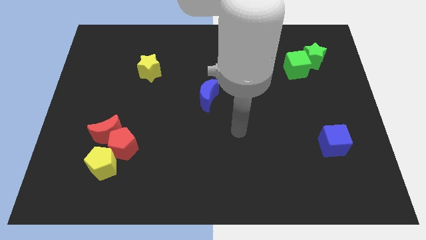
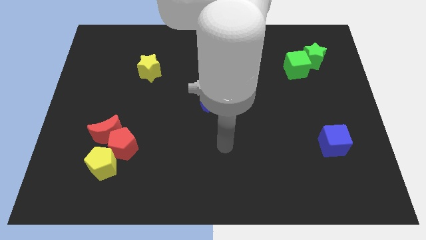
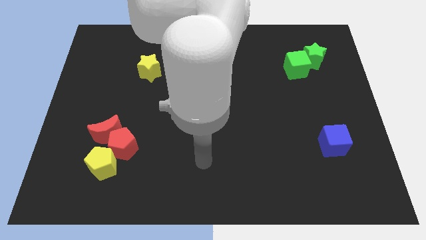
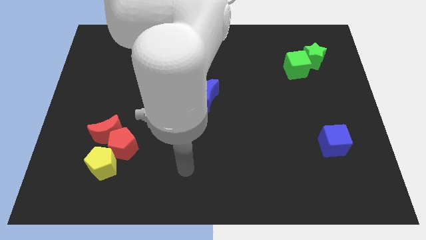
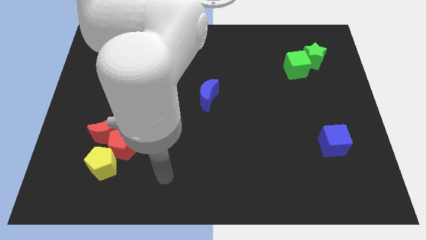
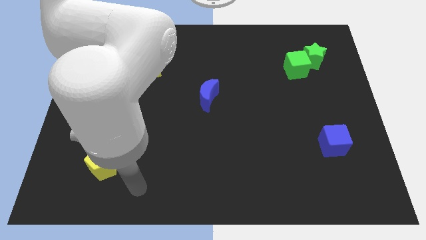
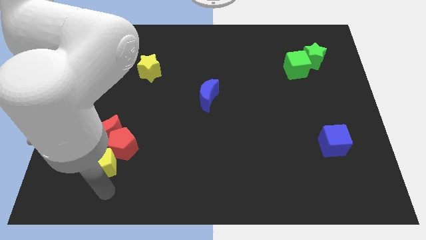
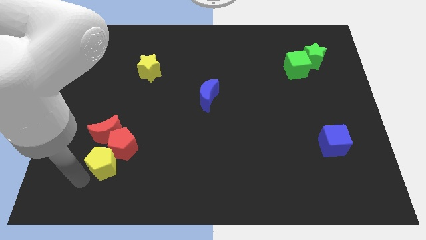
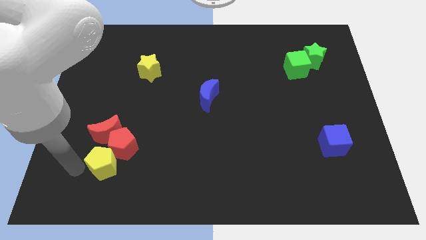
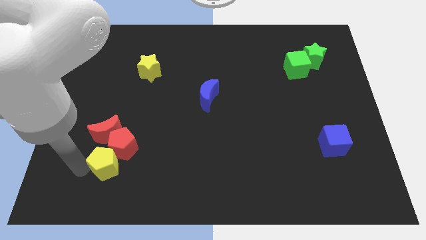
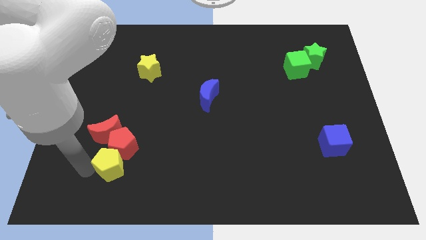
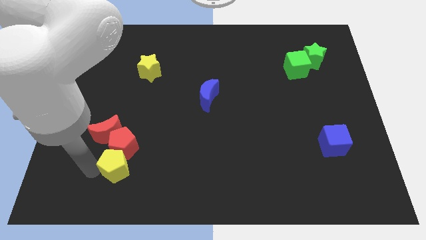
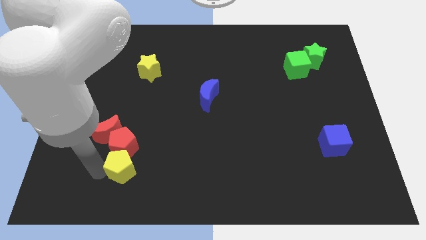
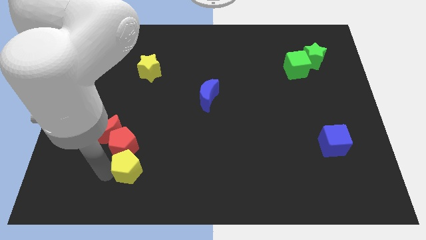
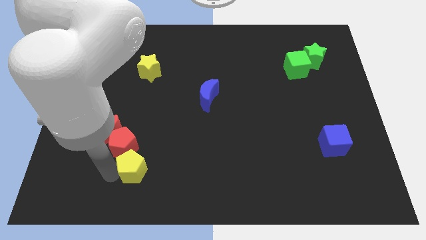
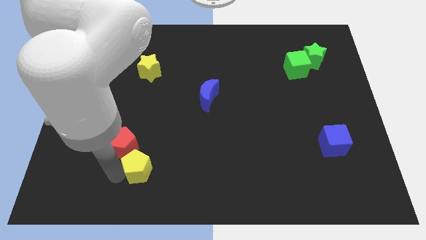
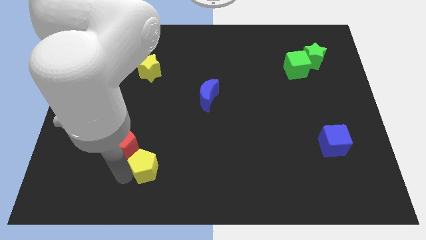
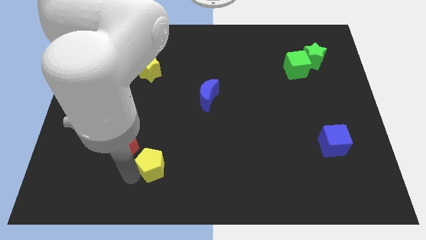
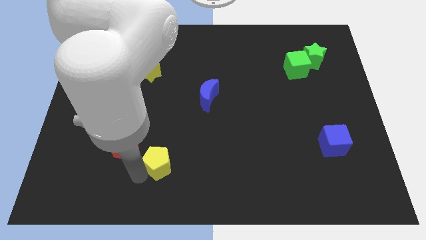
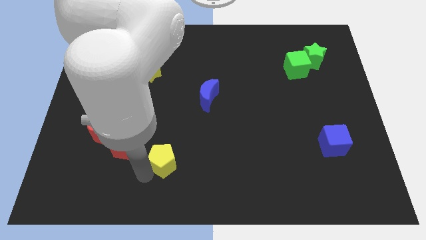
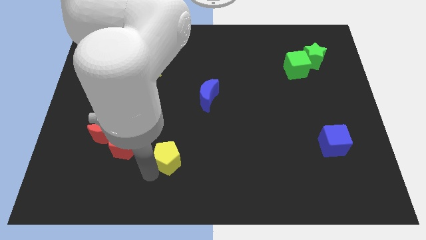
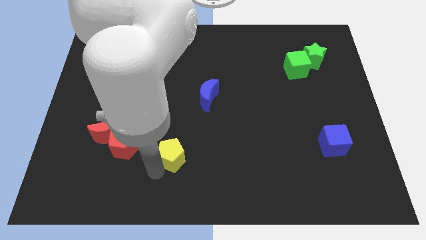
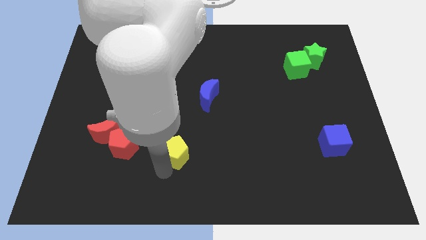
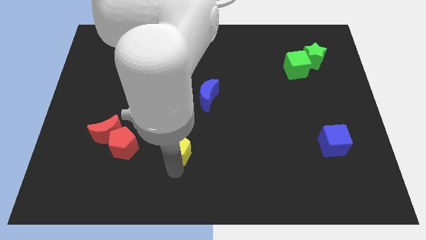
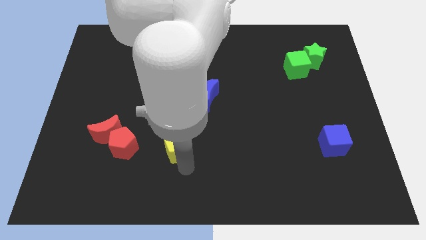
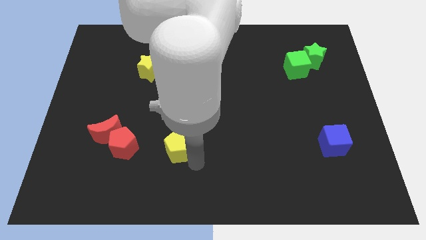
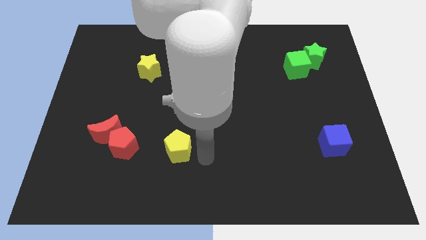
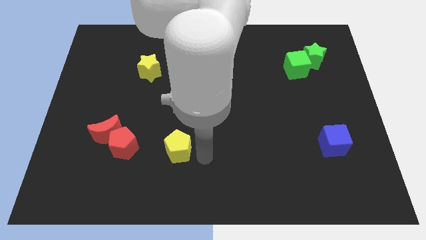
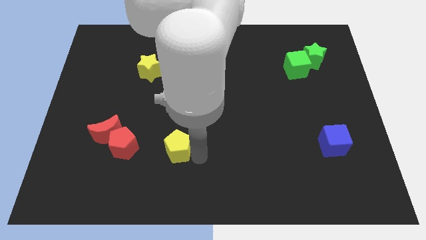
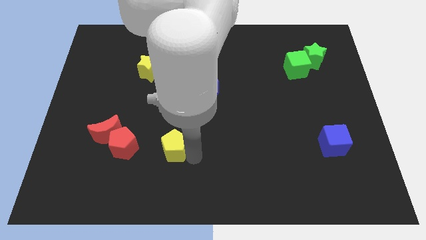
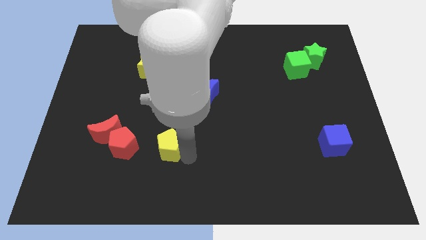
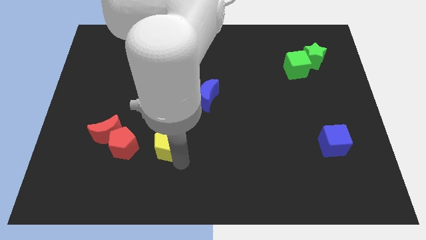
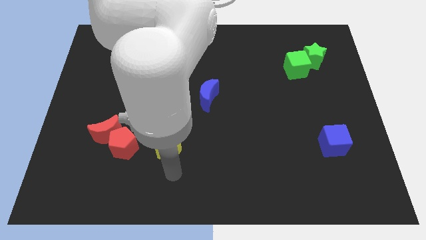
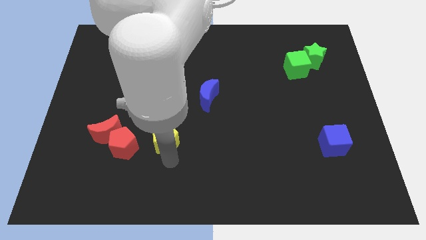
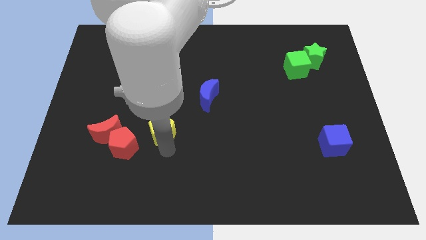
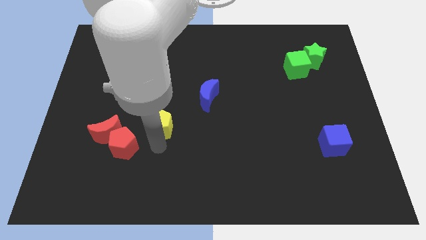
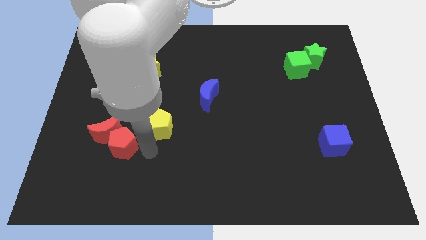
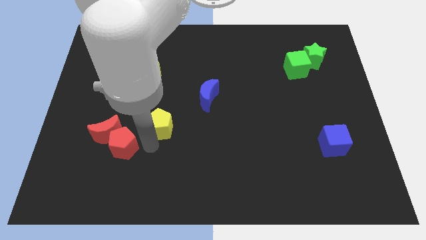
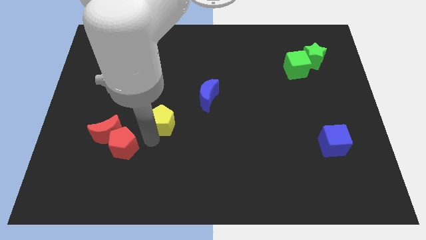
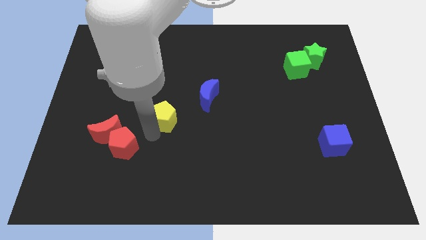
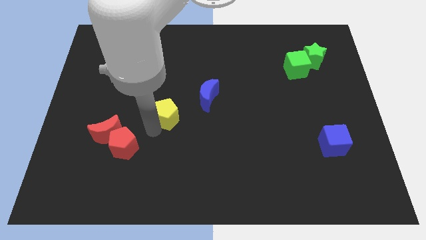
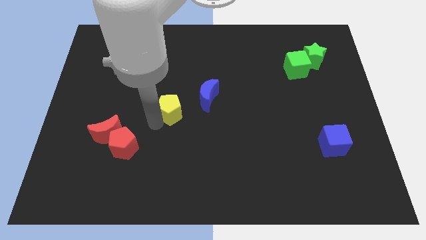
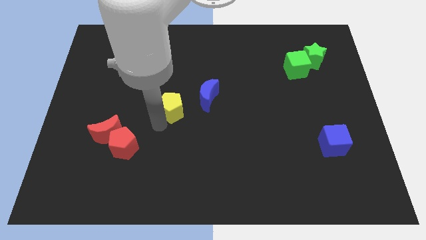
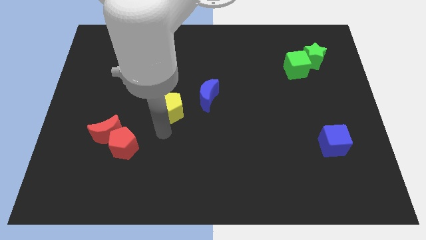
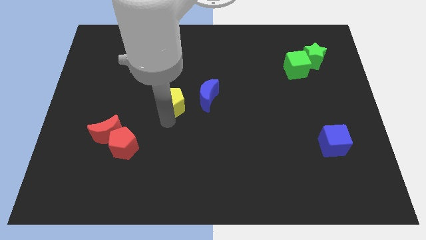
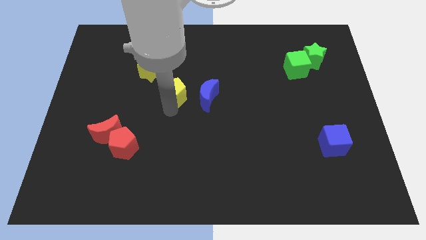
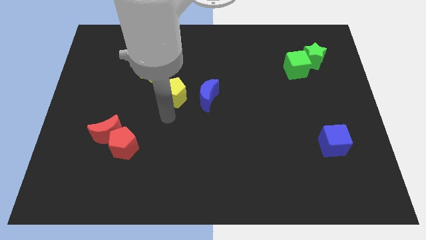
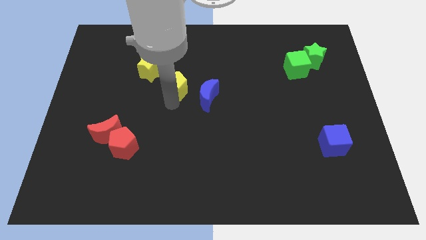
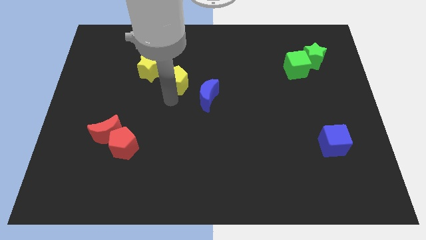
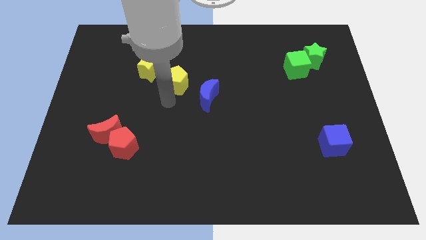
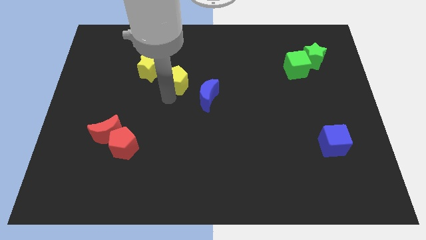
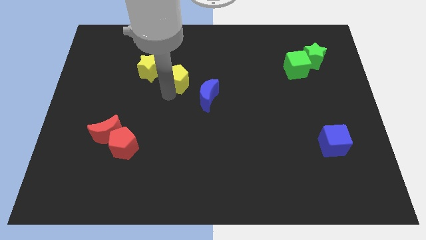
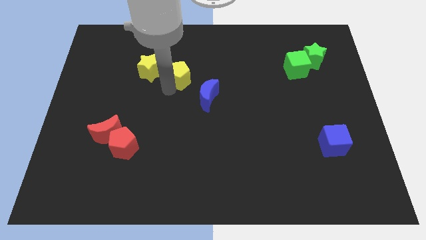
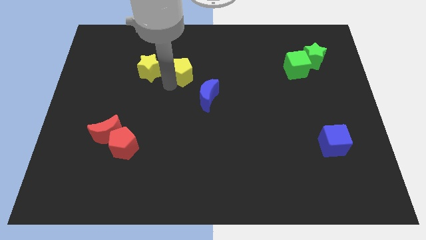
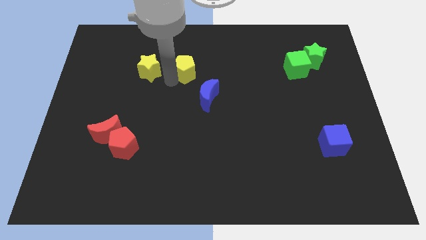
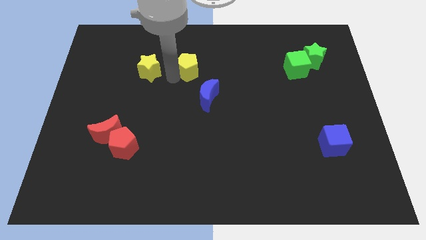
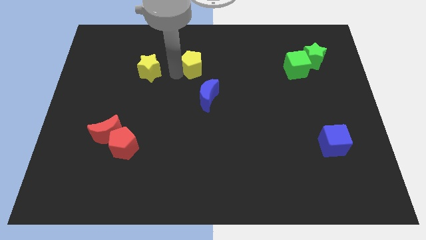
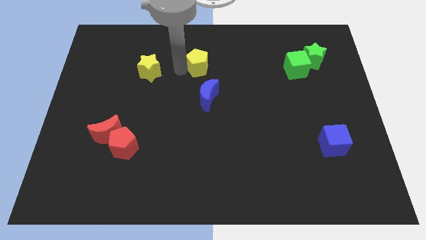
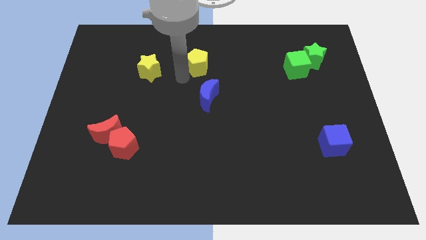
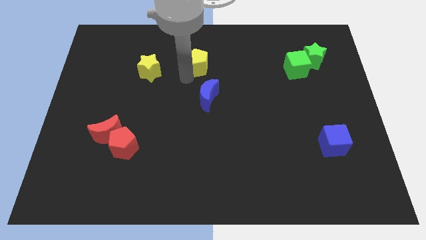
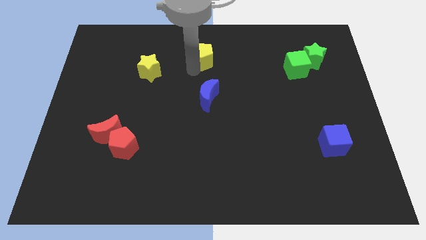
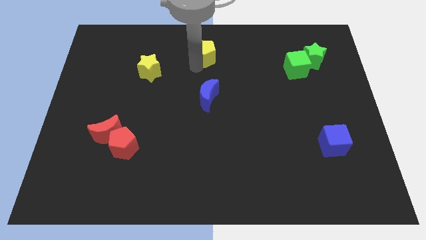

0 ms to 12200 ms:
put the yellow pentagon to the top

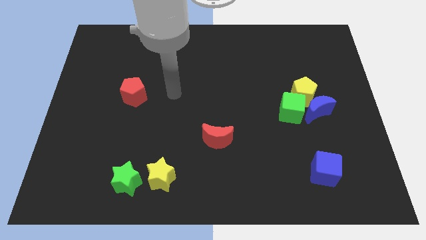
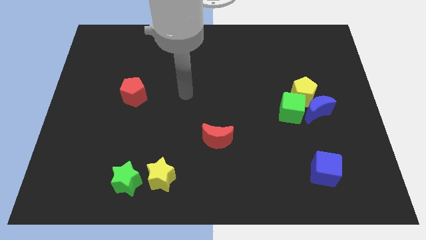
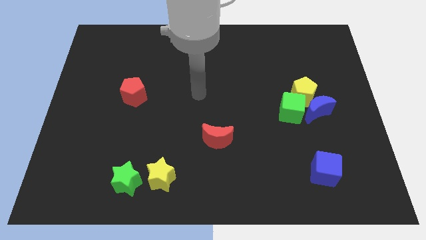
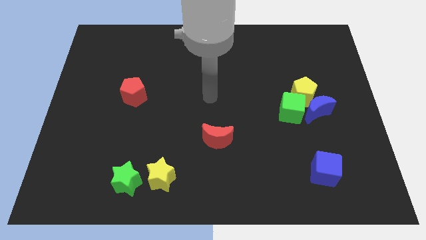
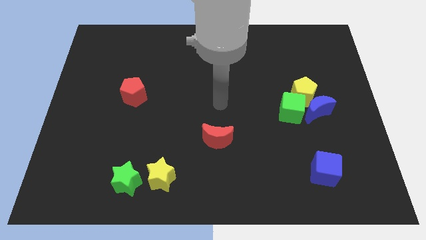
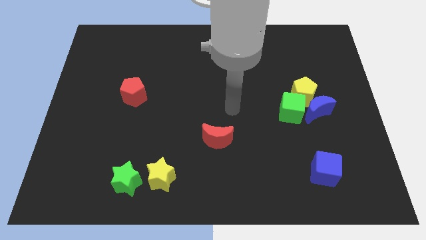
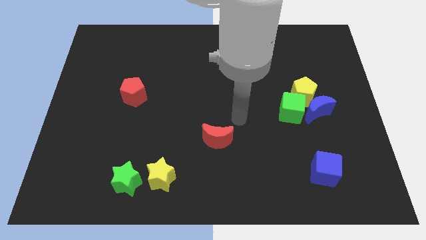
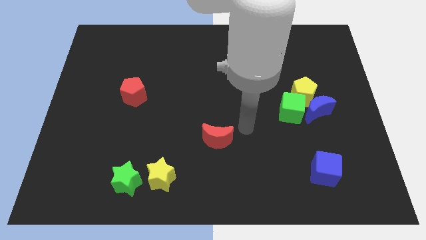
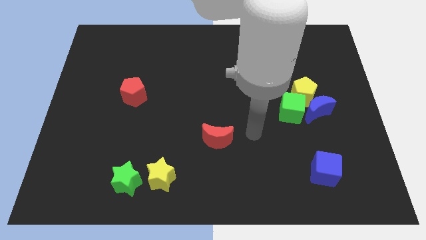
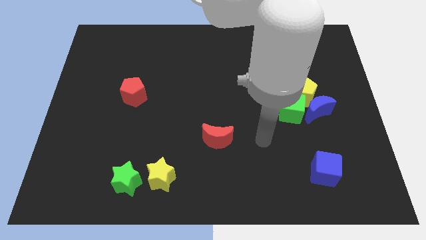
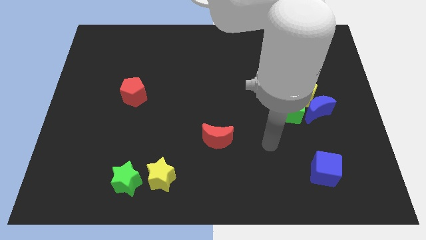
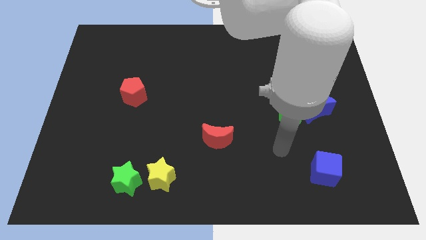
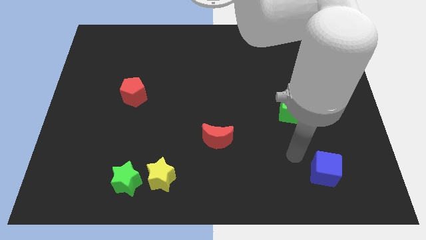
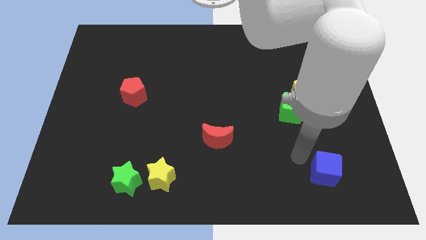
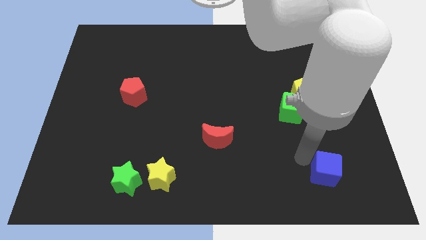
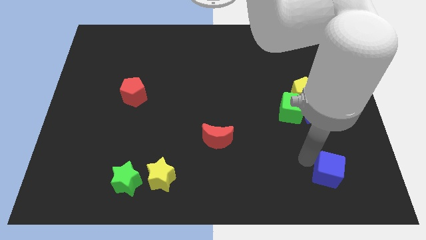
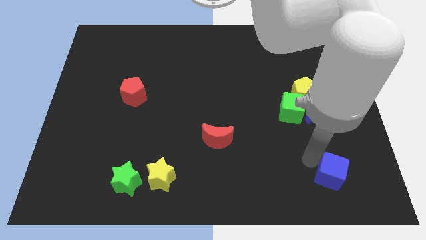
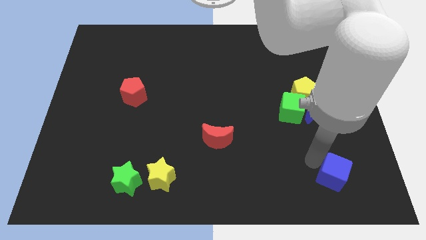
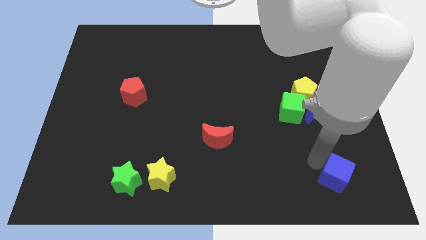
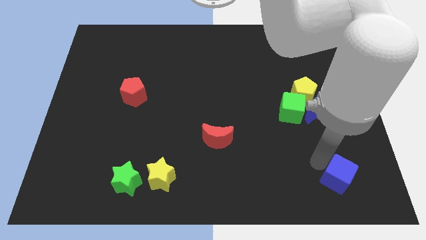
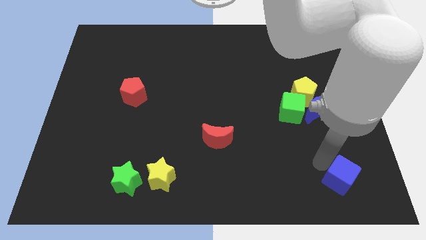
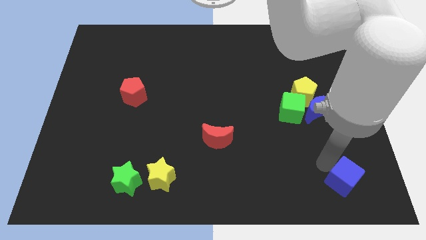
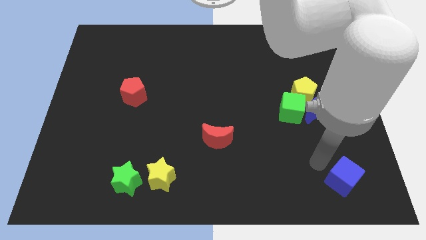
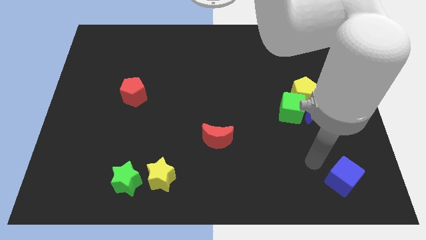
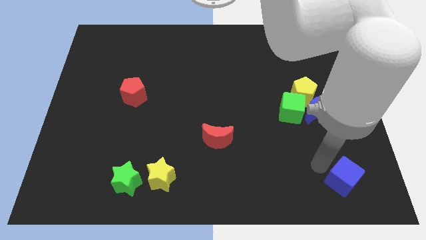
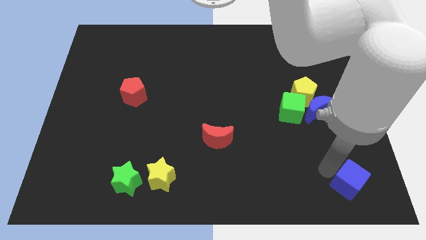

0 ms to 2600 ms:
push the blue cube to the bottom right corner
